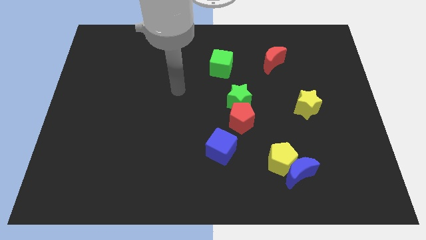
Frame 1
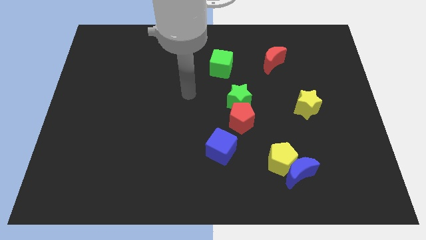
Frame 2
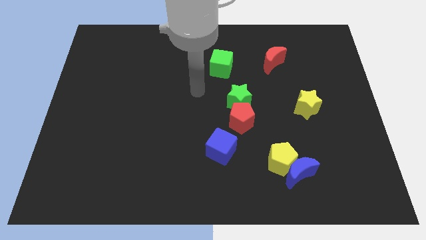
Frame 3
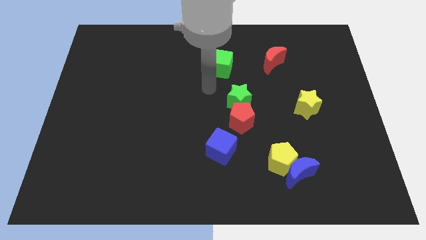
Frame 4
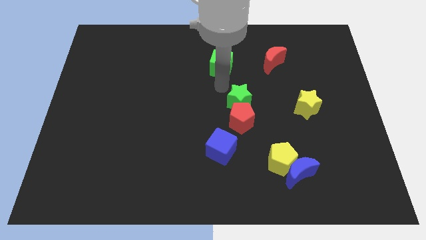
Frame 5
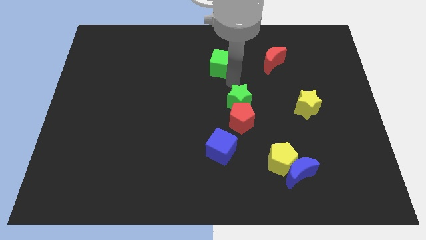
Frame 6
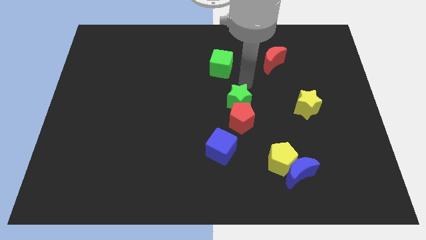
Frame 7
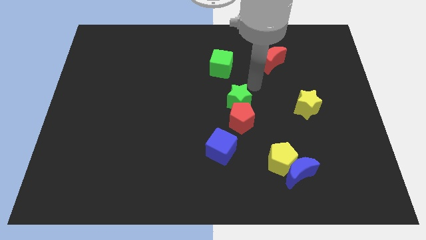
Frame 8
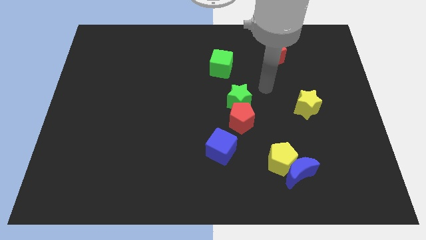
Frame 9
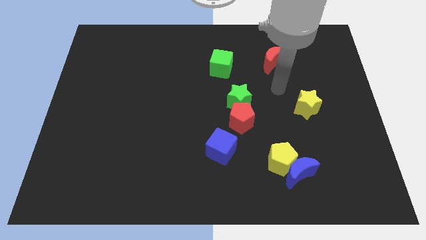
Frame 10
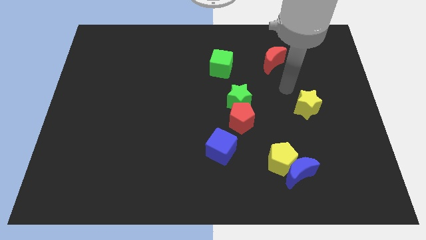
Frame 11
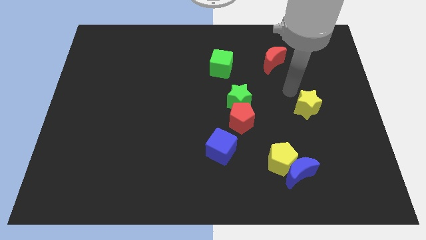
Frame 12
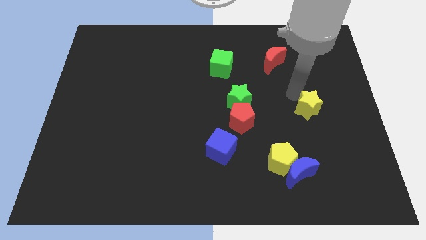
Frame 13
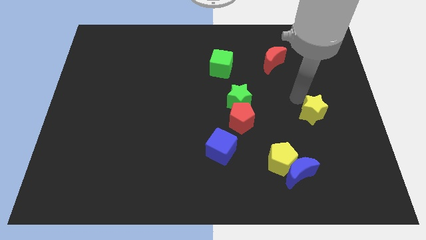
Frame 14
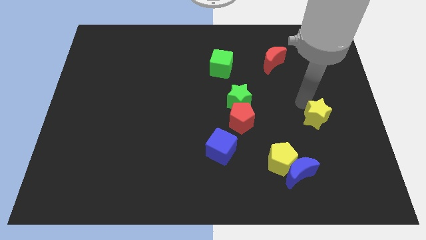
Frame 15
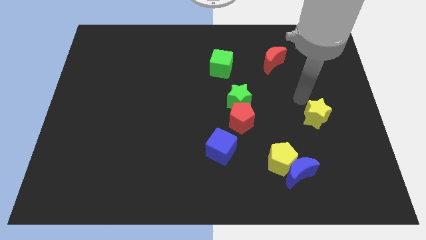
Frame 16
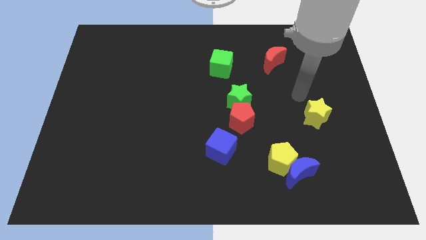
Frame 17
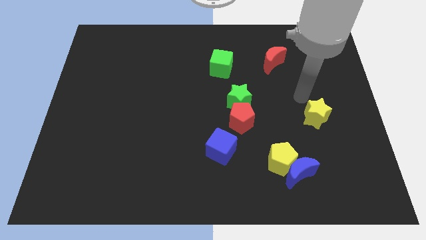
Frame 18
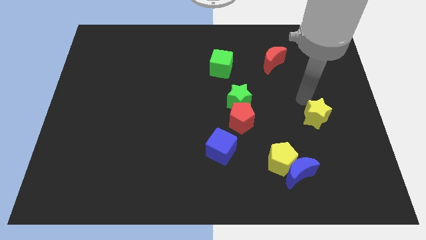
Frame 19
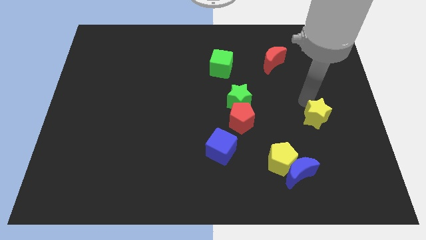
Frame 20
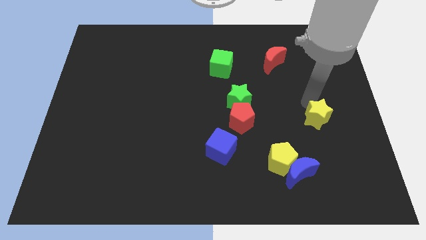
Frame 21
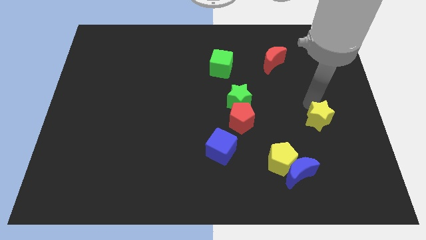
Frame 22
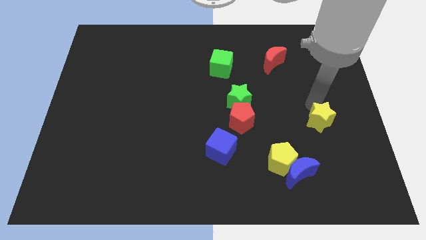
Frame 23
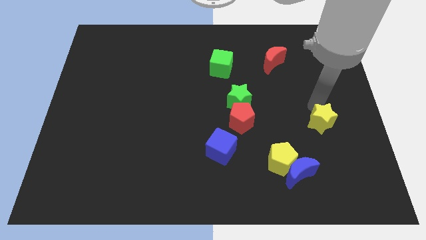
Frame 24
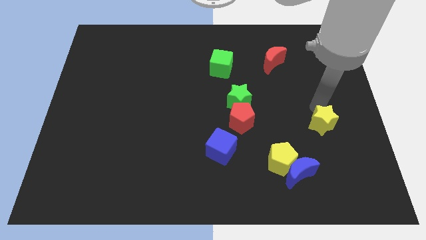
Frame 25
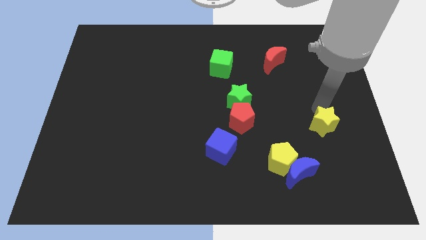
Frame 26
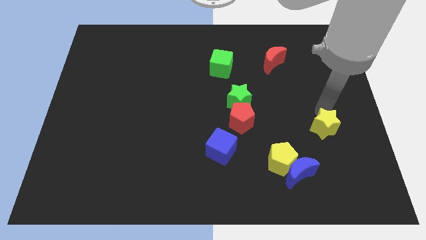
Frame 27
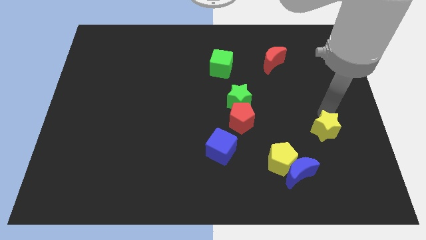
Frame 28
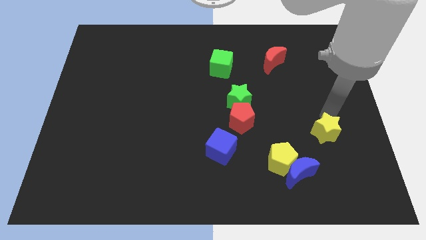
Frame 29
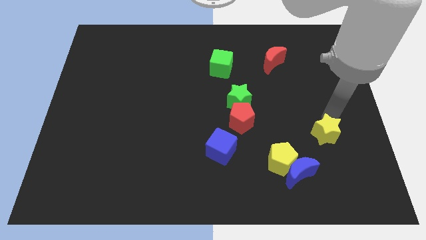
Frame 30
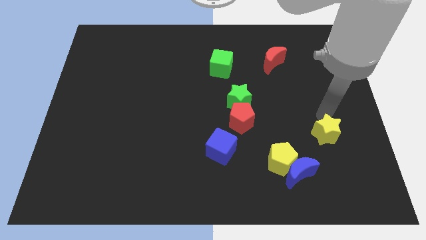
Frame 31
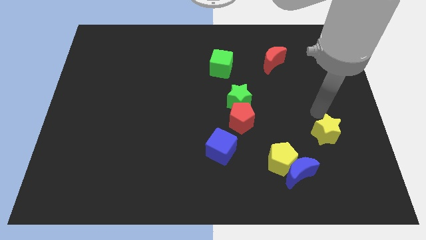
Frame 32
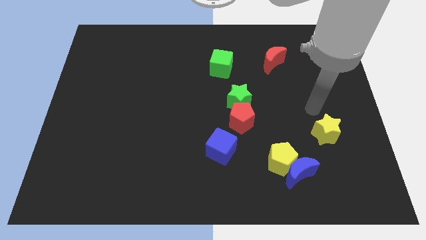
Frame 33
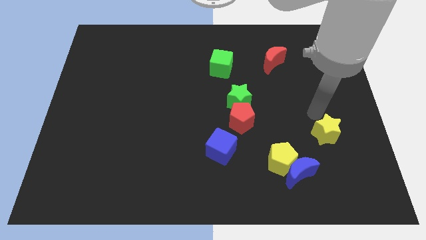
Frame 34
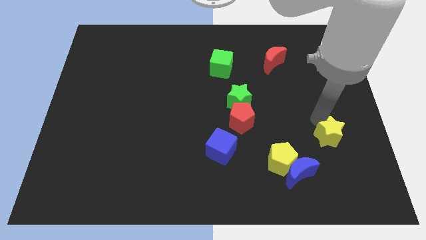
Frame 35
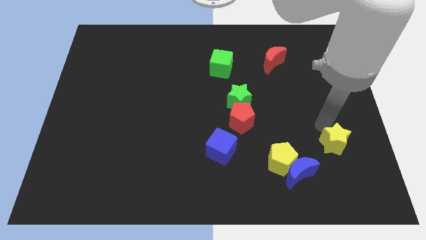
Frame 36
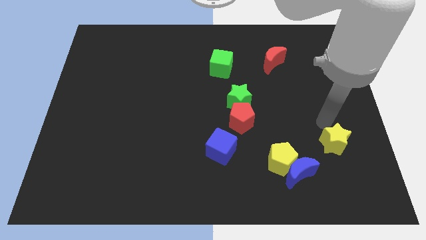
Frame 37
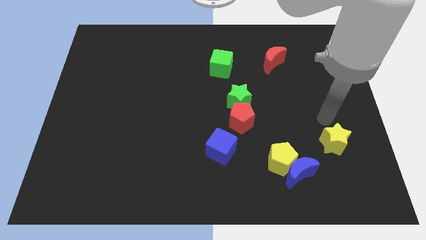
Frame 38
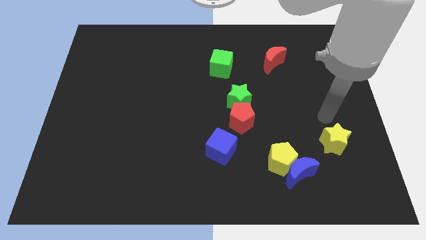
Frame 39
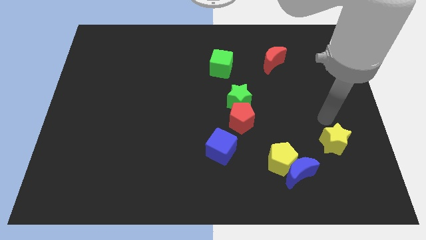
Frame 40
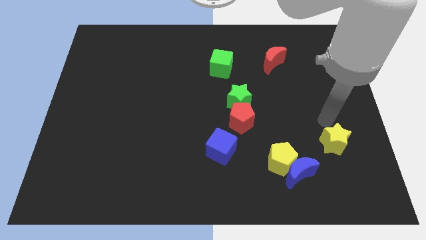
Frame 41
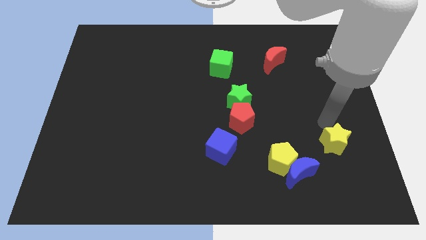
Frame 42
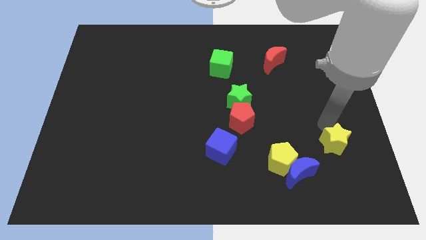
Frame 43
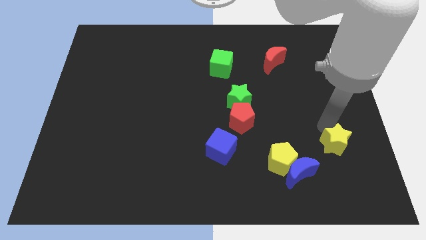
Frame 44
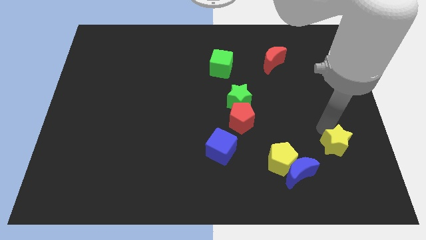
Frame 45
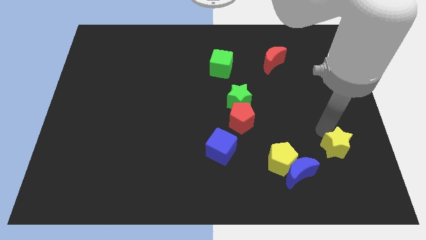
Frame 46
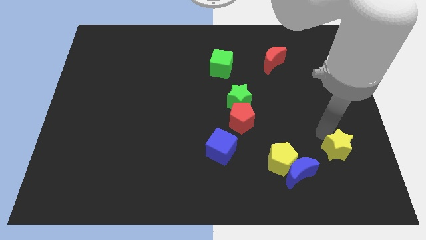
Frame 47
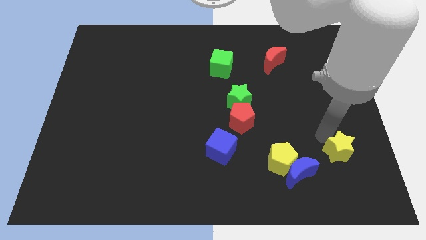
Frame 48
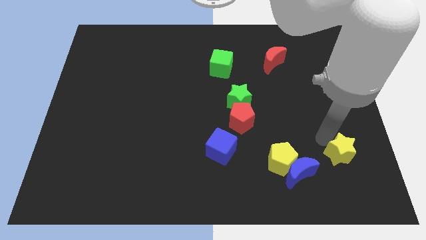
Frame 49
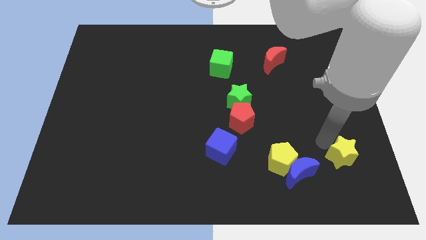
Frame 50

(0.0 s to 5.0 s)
put the yellow star to the right side of the blue moon

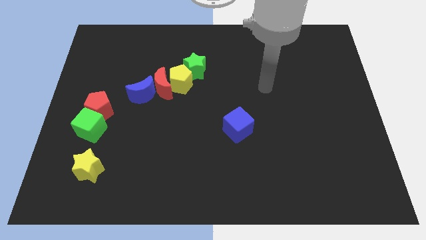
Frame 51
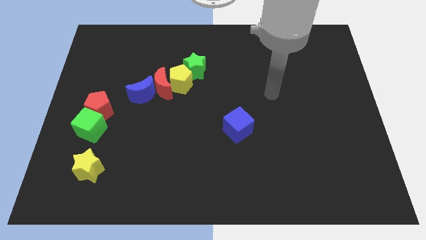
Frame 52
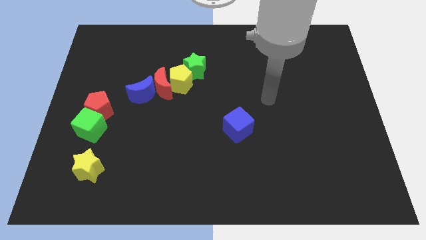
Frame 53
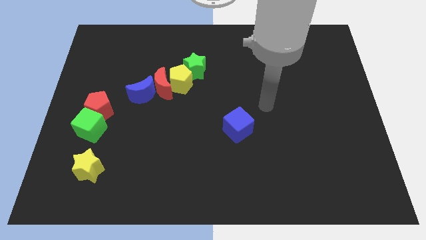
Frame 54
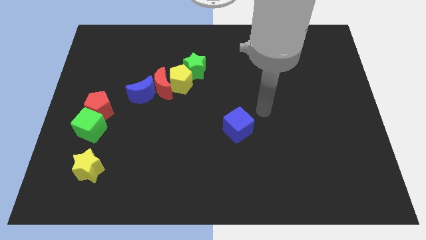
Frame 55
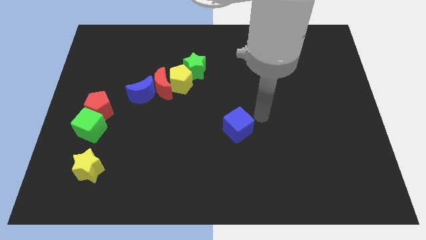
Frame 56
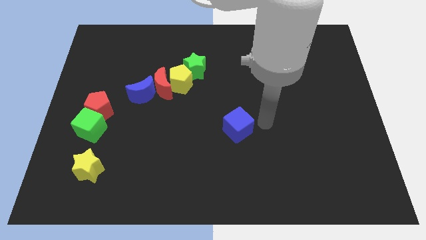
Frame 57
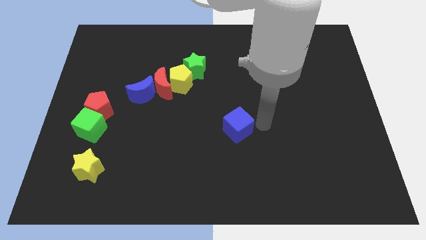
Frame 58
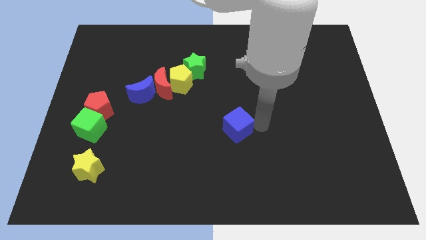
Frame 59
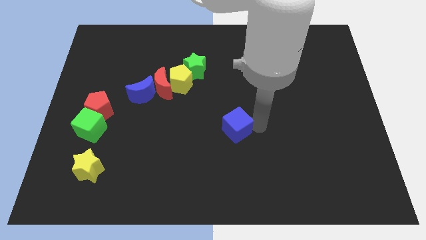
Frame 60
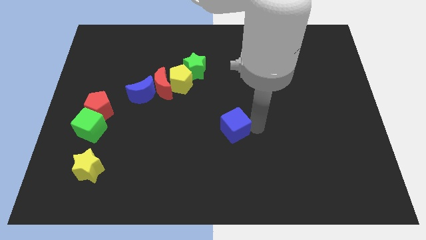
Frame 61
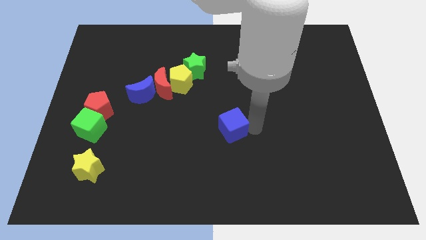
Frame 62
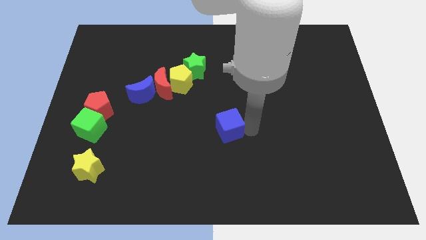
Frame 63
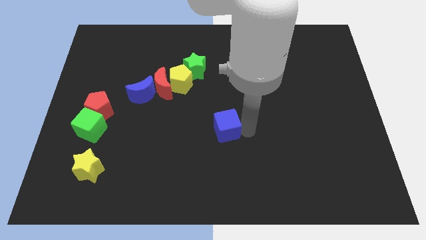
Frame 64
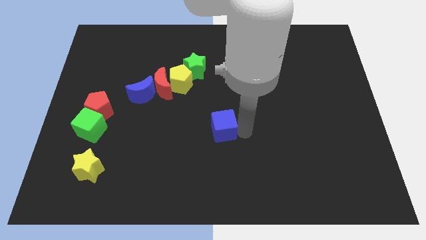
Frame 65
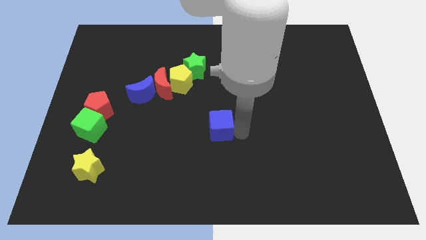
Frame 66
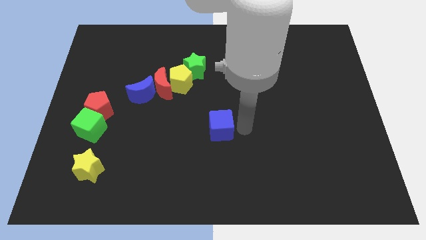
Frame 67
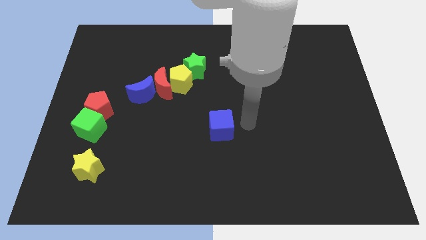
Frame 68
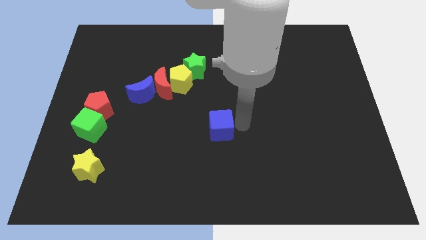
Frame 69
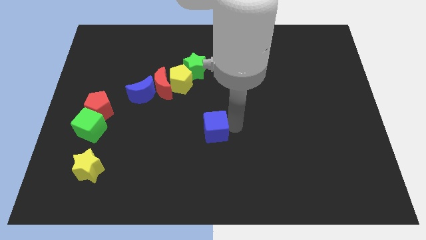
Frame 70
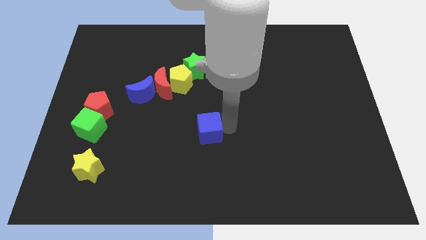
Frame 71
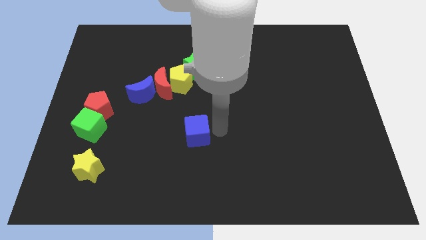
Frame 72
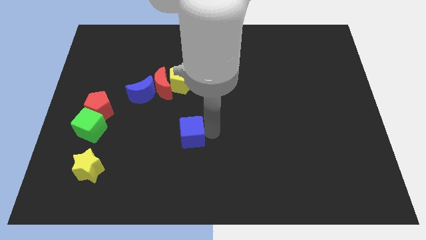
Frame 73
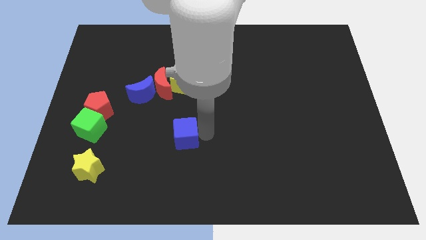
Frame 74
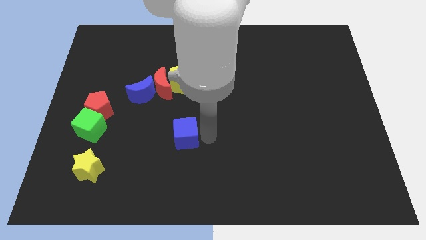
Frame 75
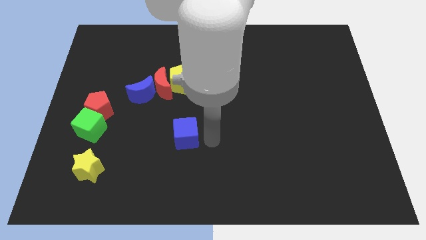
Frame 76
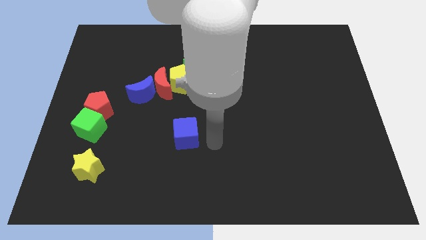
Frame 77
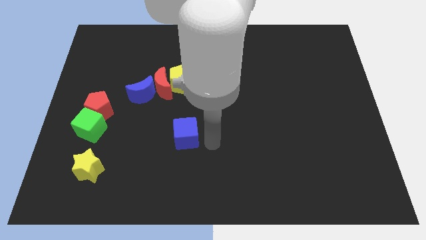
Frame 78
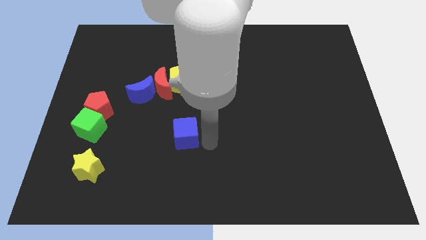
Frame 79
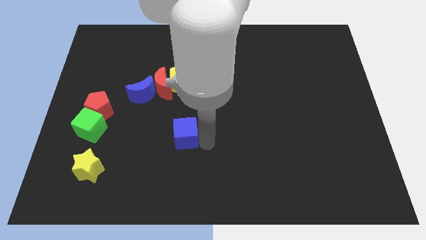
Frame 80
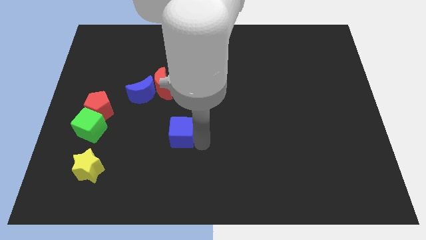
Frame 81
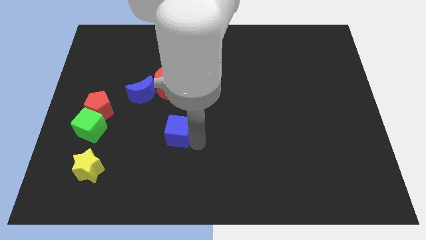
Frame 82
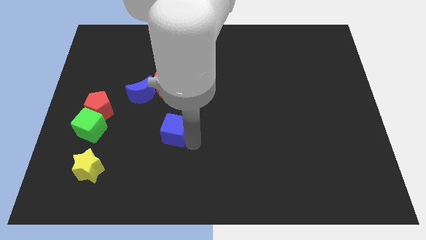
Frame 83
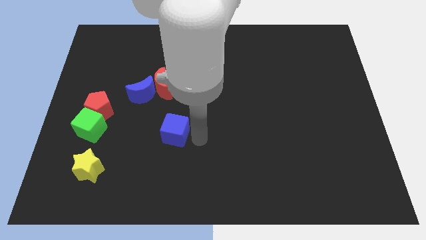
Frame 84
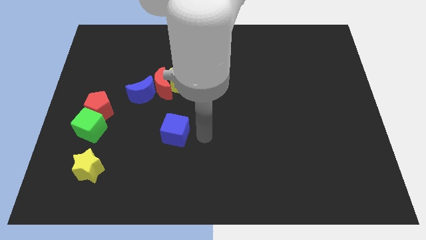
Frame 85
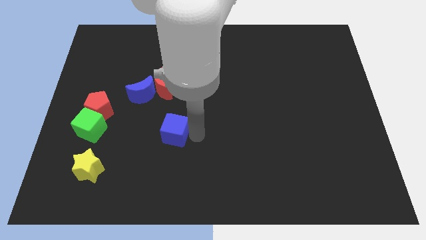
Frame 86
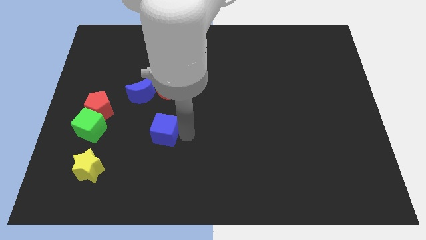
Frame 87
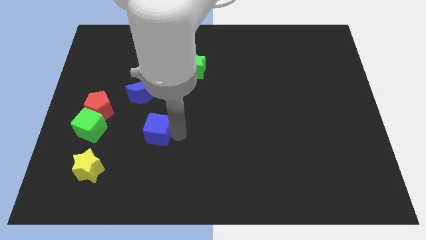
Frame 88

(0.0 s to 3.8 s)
put the blue cube below the blue moon
